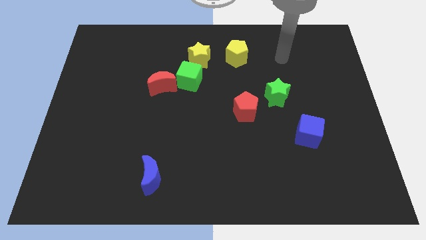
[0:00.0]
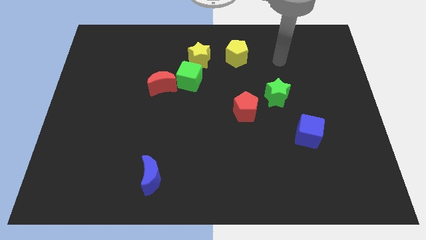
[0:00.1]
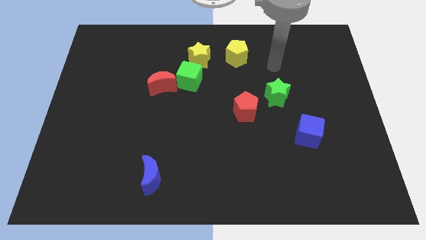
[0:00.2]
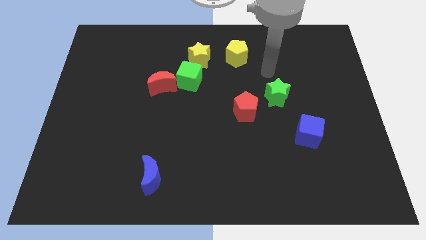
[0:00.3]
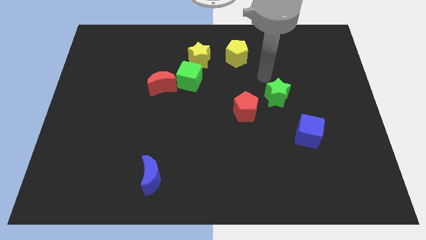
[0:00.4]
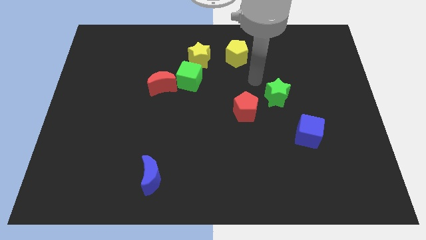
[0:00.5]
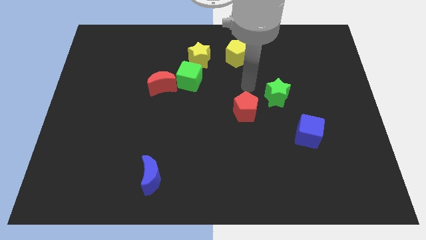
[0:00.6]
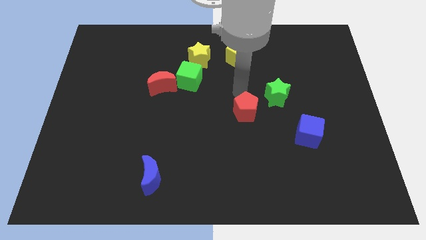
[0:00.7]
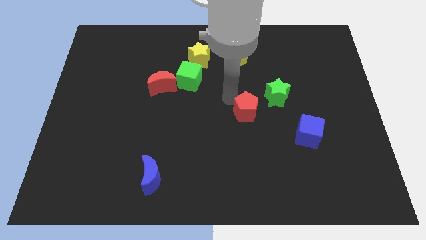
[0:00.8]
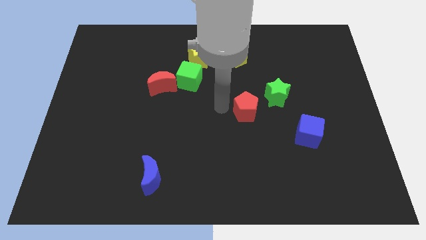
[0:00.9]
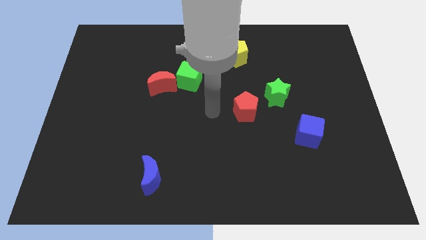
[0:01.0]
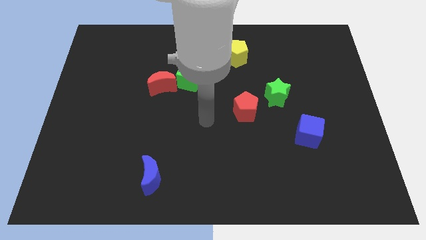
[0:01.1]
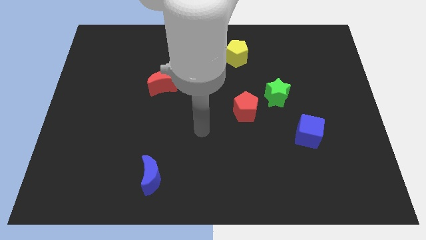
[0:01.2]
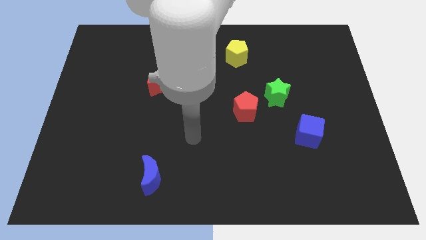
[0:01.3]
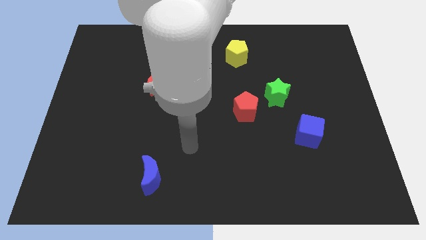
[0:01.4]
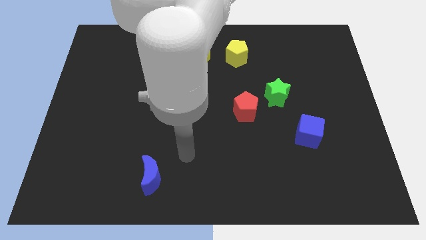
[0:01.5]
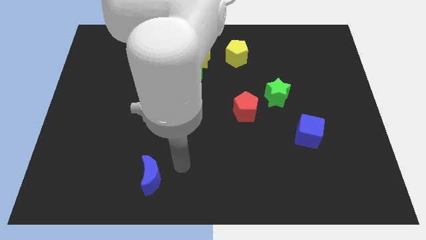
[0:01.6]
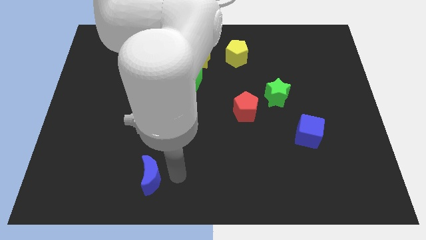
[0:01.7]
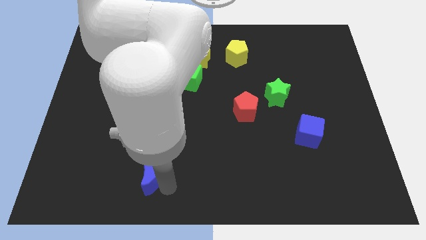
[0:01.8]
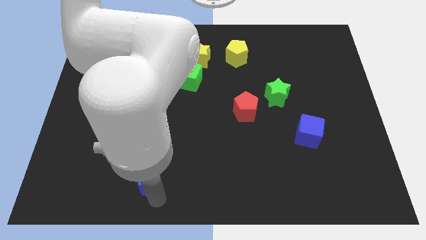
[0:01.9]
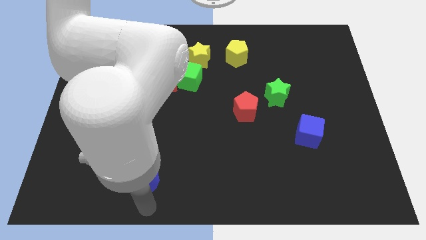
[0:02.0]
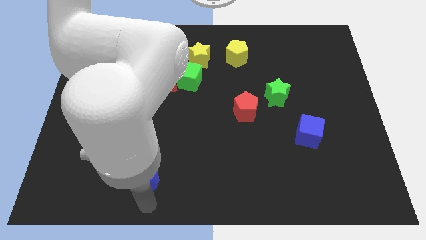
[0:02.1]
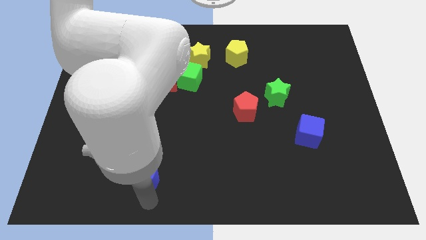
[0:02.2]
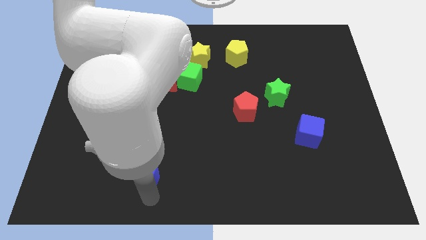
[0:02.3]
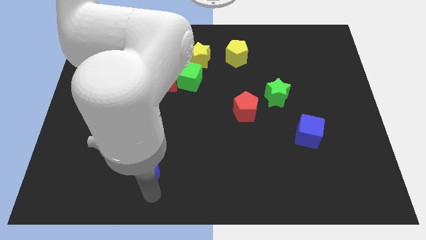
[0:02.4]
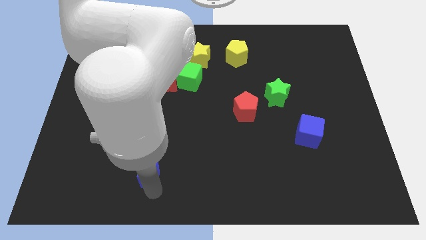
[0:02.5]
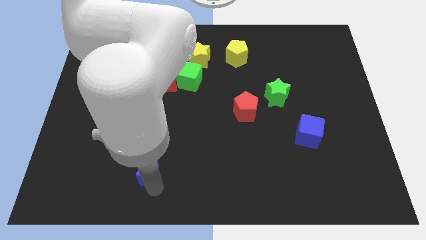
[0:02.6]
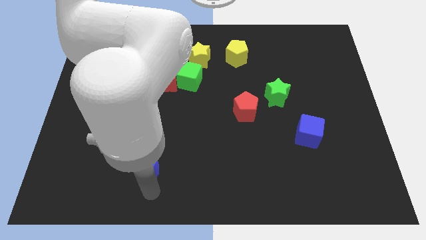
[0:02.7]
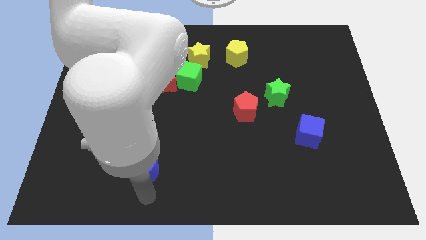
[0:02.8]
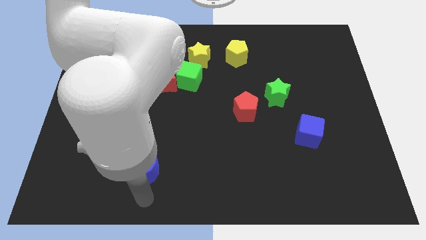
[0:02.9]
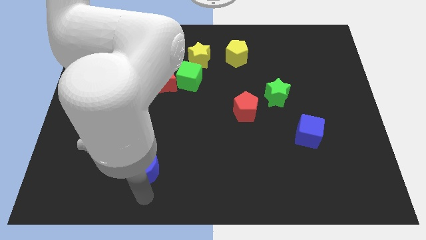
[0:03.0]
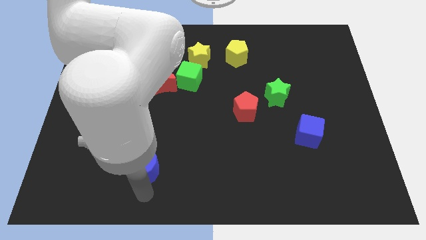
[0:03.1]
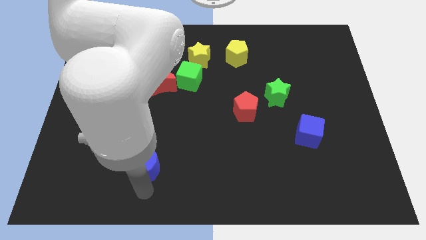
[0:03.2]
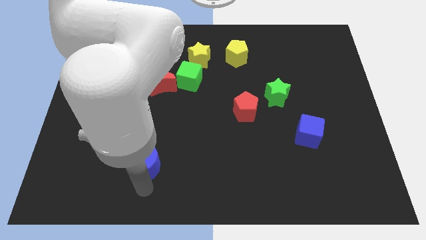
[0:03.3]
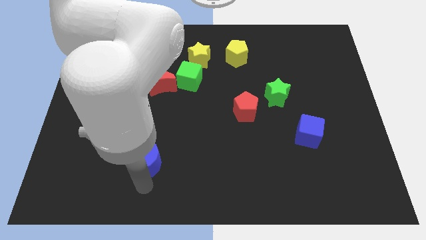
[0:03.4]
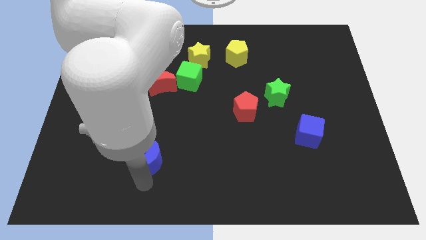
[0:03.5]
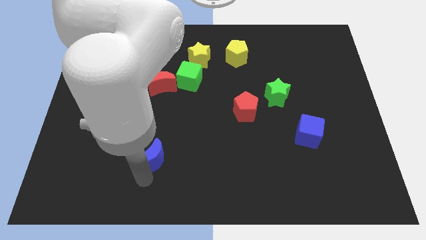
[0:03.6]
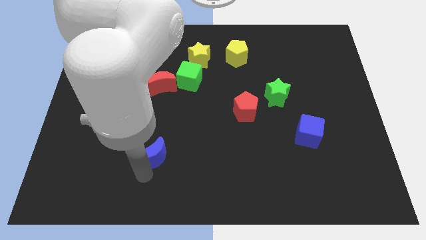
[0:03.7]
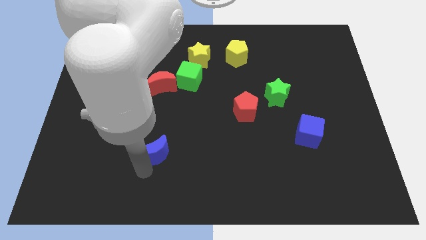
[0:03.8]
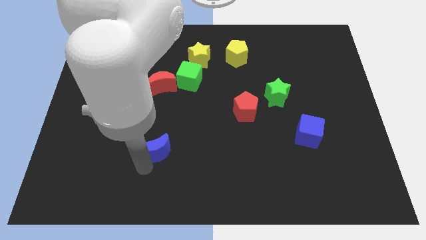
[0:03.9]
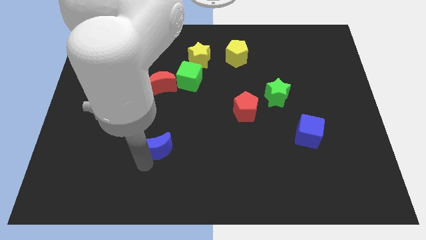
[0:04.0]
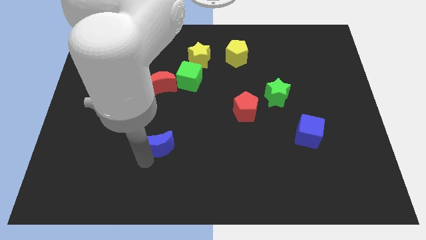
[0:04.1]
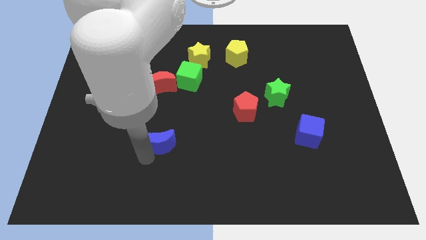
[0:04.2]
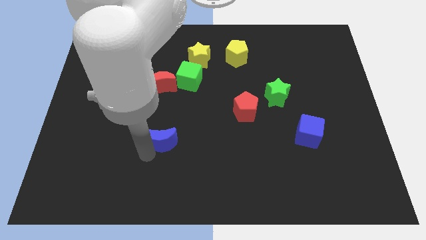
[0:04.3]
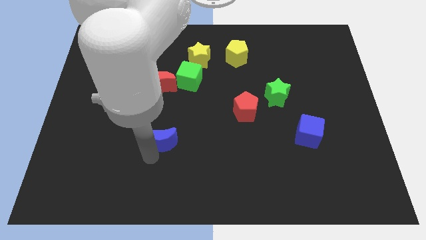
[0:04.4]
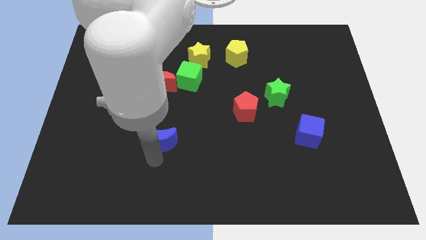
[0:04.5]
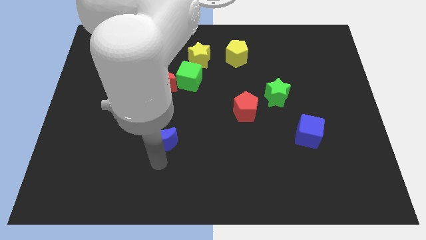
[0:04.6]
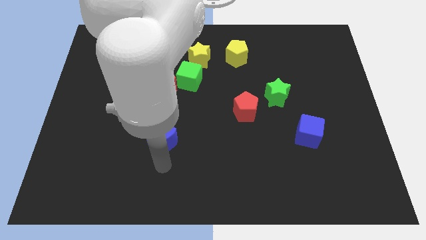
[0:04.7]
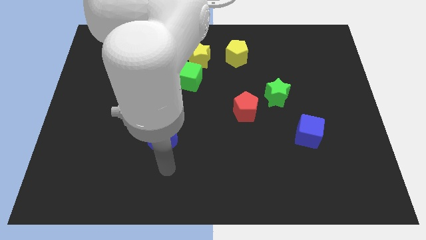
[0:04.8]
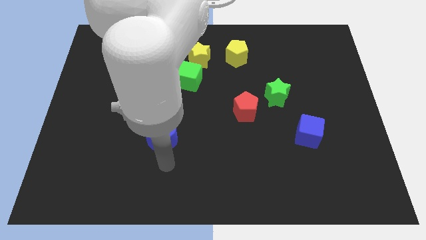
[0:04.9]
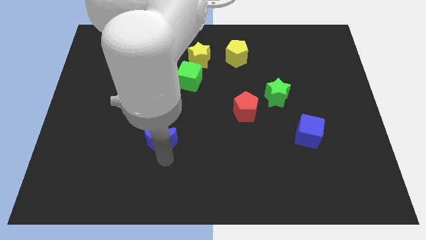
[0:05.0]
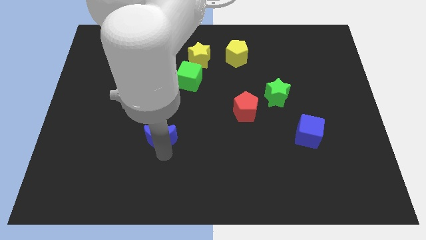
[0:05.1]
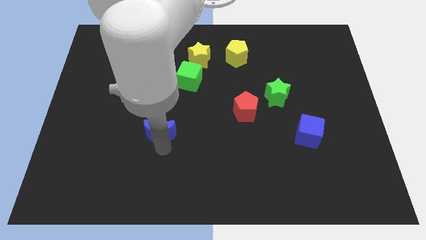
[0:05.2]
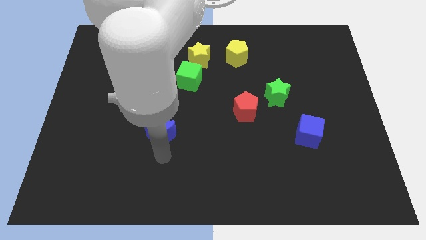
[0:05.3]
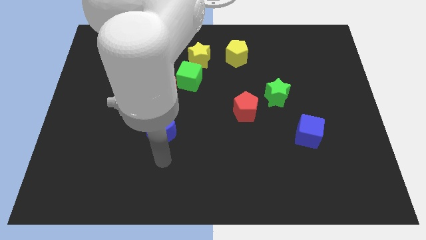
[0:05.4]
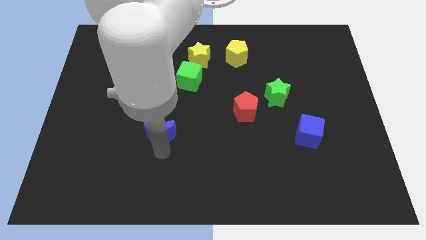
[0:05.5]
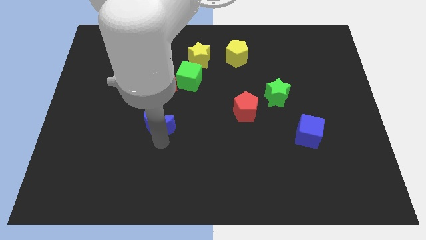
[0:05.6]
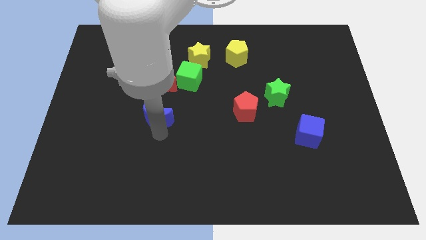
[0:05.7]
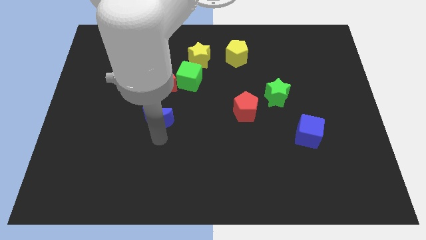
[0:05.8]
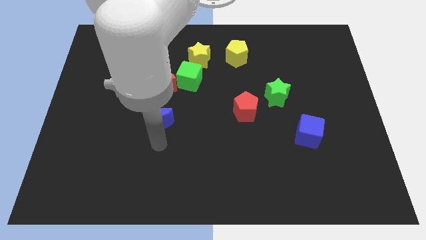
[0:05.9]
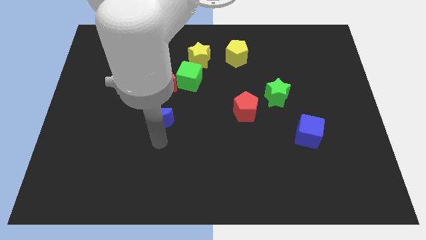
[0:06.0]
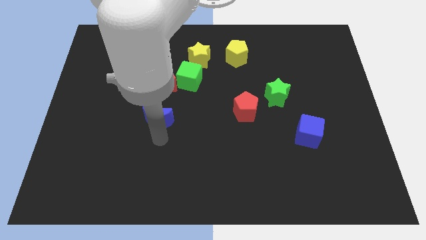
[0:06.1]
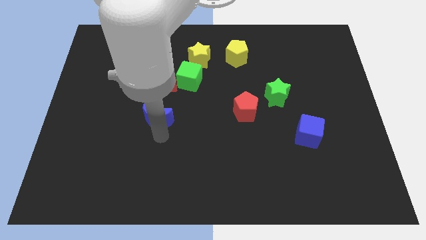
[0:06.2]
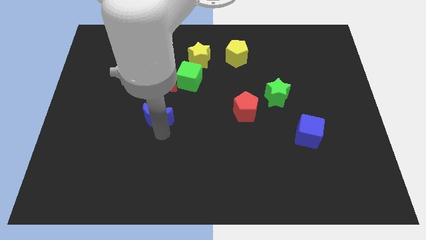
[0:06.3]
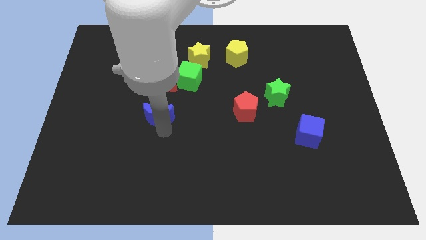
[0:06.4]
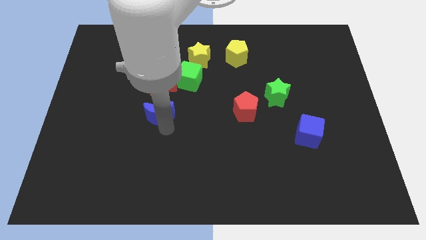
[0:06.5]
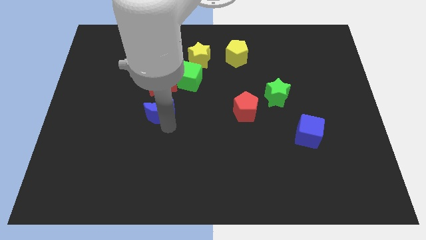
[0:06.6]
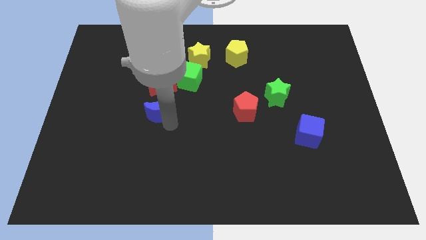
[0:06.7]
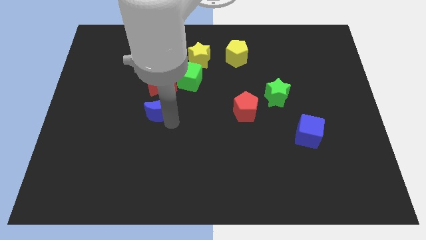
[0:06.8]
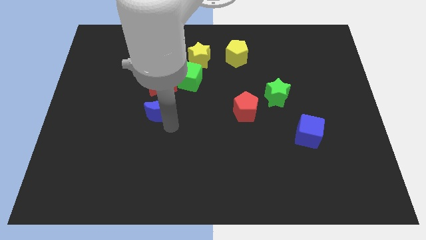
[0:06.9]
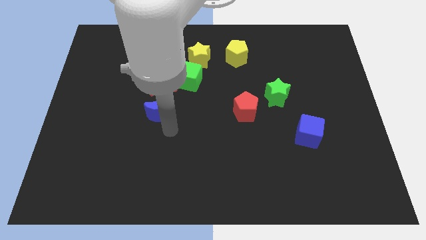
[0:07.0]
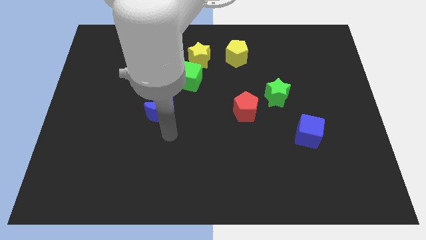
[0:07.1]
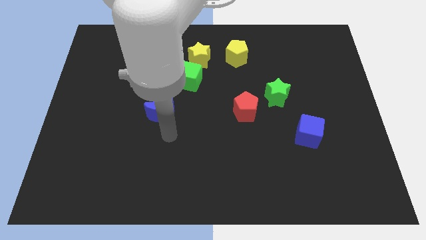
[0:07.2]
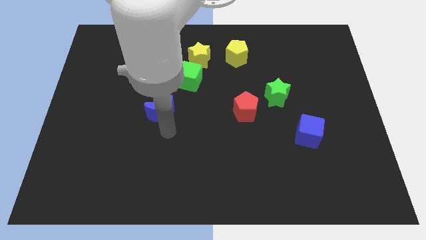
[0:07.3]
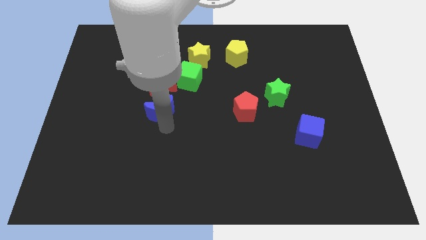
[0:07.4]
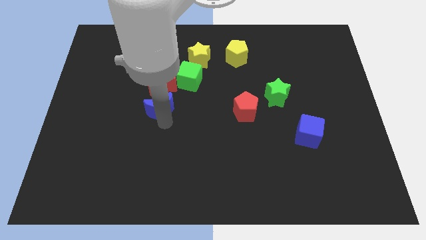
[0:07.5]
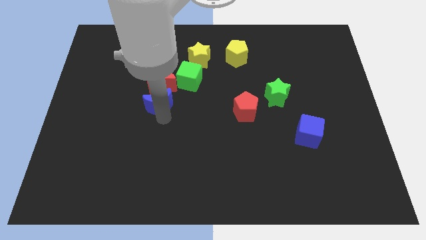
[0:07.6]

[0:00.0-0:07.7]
put the blue moon to the red moon

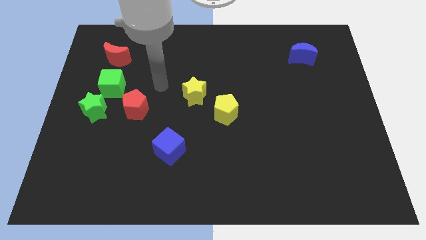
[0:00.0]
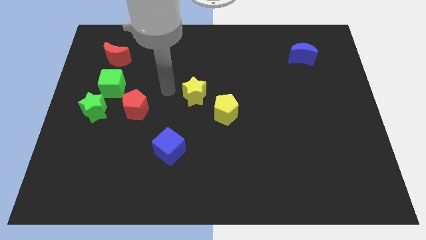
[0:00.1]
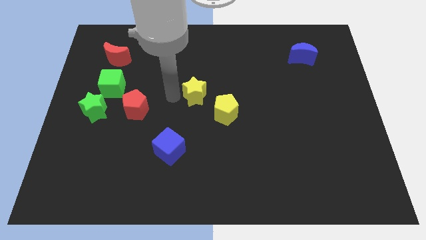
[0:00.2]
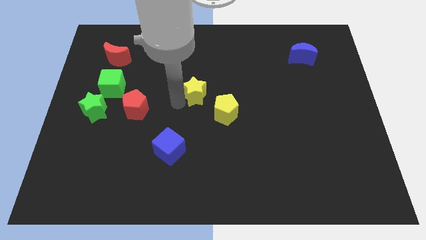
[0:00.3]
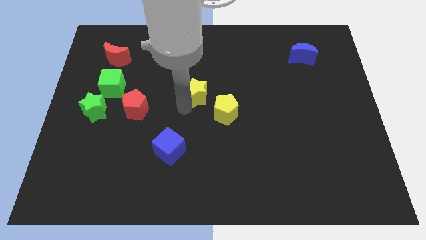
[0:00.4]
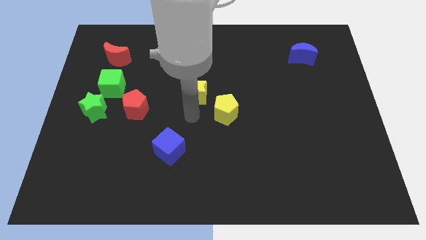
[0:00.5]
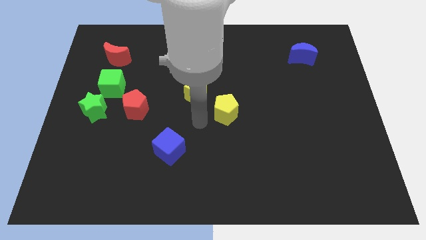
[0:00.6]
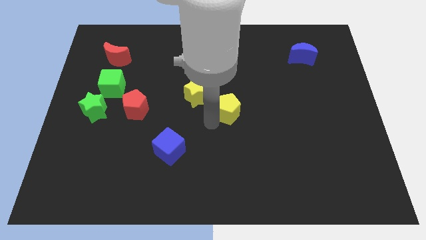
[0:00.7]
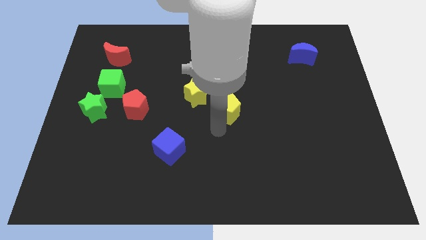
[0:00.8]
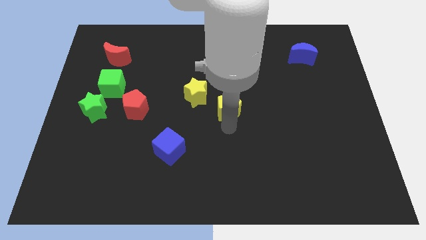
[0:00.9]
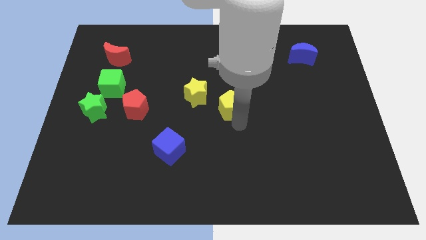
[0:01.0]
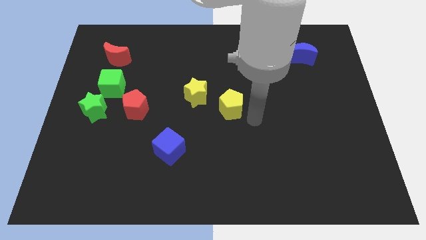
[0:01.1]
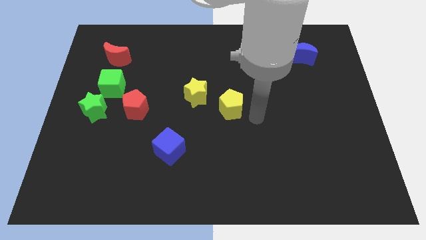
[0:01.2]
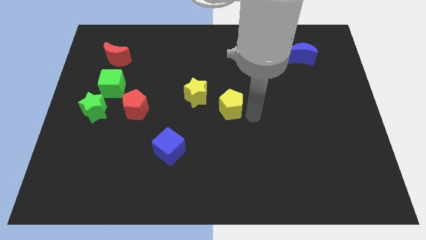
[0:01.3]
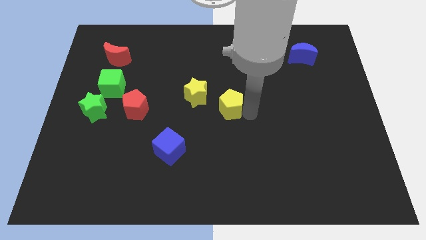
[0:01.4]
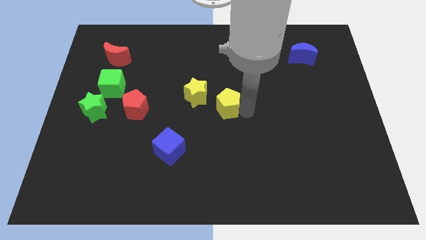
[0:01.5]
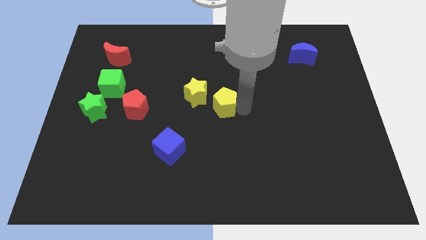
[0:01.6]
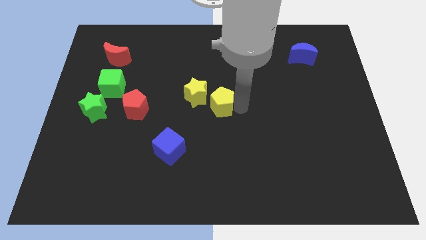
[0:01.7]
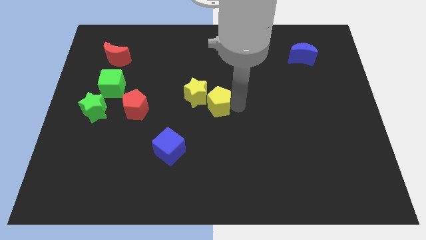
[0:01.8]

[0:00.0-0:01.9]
move the yellow pentagon close to the yellow star
